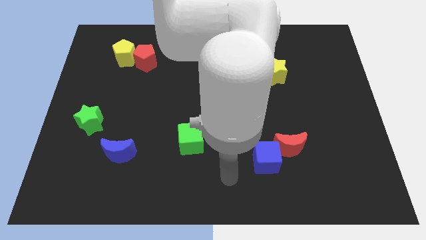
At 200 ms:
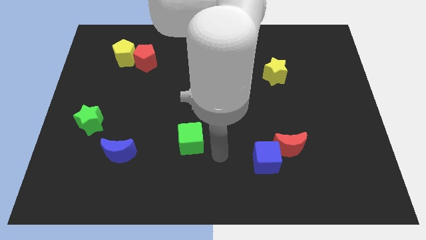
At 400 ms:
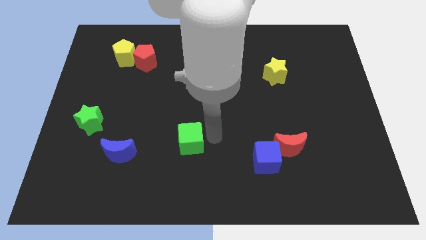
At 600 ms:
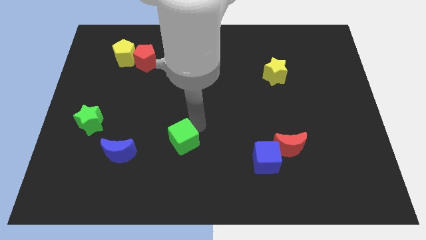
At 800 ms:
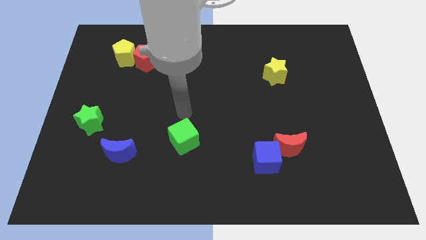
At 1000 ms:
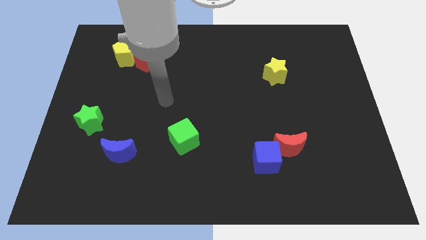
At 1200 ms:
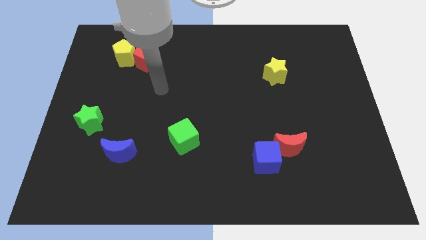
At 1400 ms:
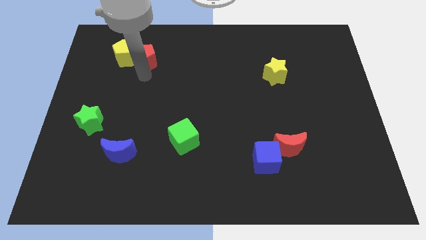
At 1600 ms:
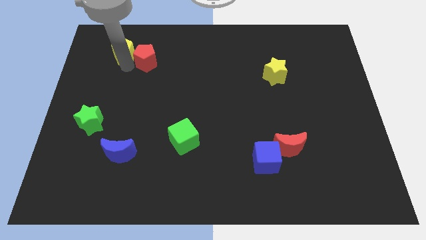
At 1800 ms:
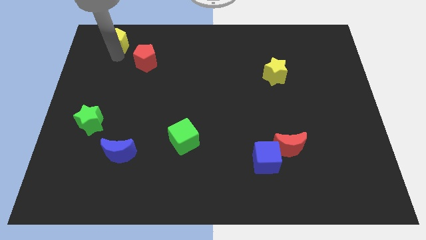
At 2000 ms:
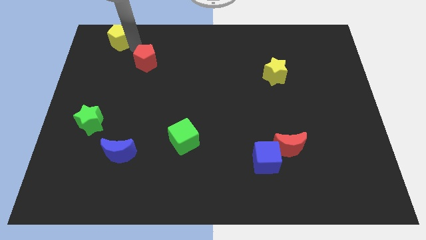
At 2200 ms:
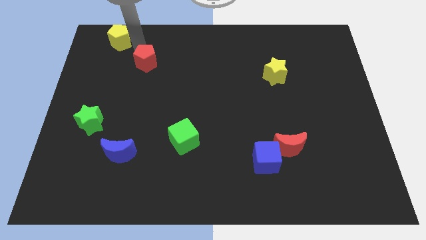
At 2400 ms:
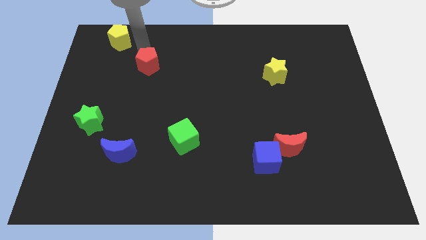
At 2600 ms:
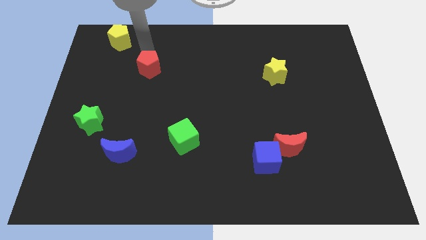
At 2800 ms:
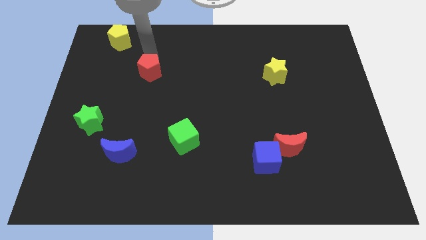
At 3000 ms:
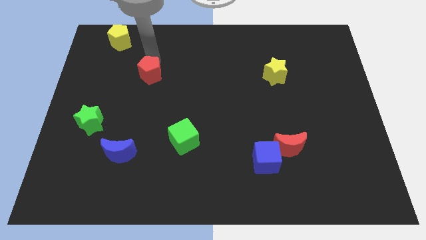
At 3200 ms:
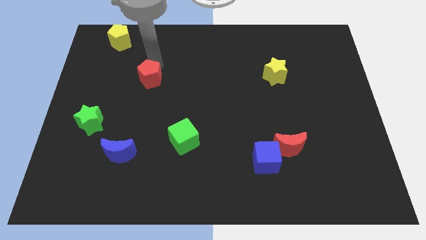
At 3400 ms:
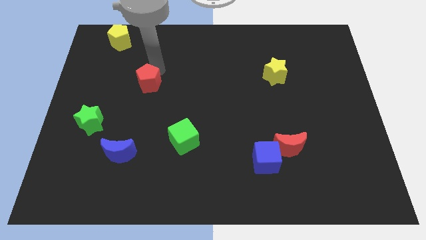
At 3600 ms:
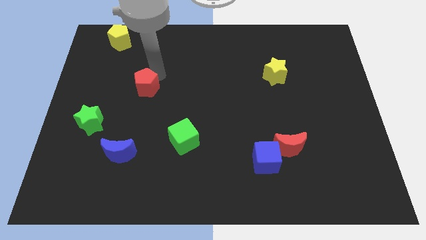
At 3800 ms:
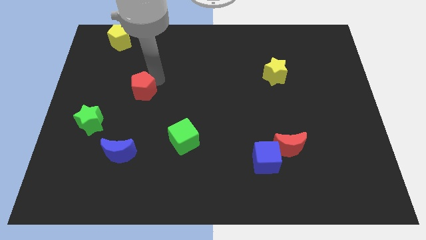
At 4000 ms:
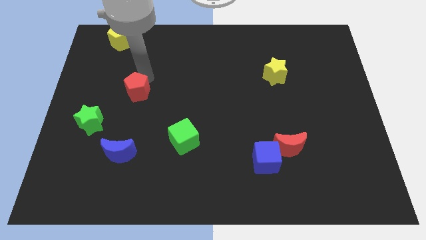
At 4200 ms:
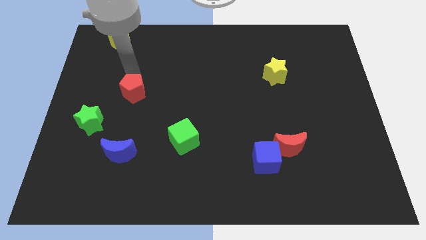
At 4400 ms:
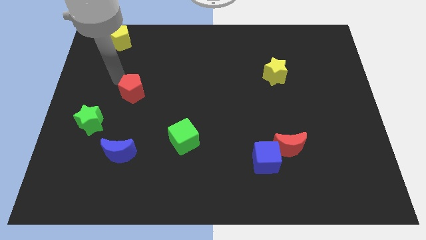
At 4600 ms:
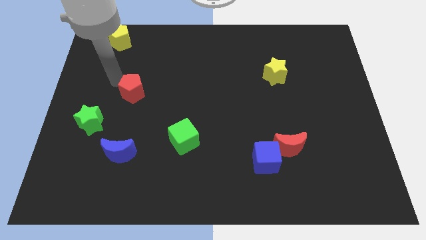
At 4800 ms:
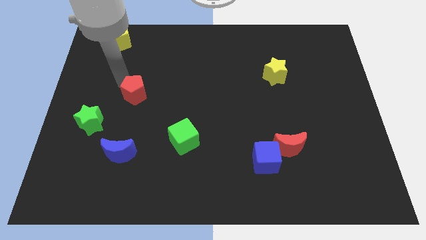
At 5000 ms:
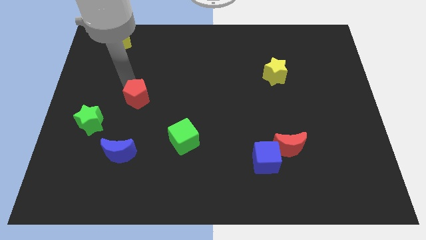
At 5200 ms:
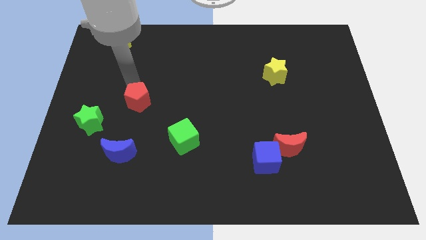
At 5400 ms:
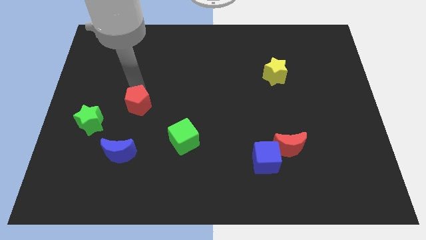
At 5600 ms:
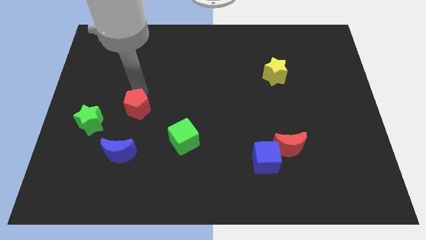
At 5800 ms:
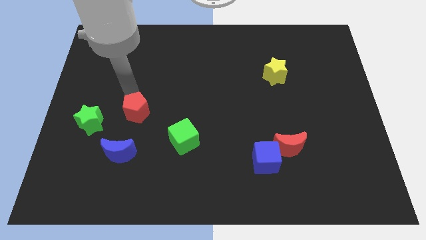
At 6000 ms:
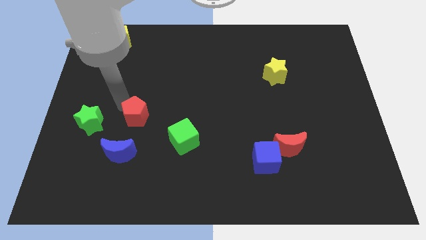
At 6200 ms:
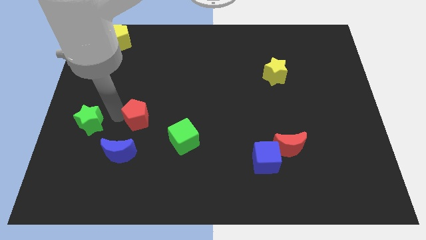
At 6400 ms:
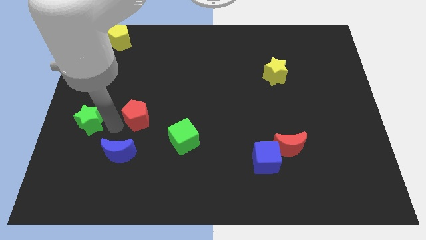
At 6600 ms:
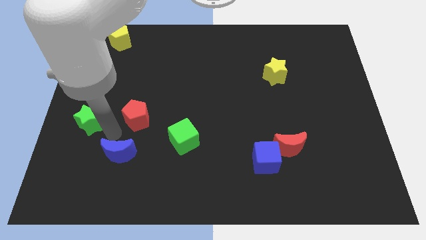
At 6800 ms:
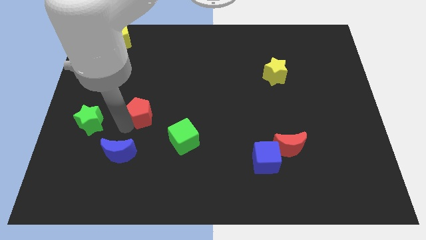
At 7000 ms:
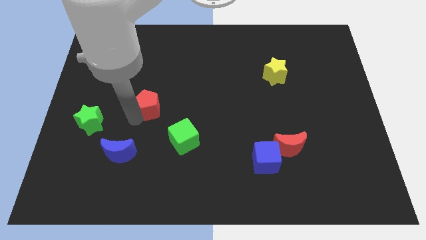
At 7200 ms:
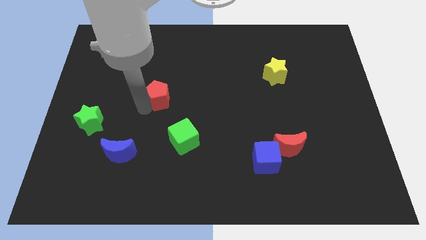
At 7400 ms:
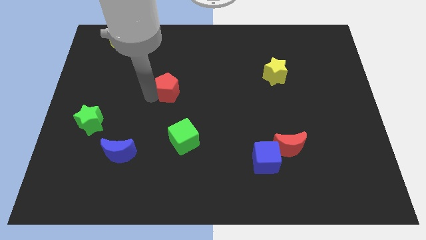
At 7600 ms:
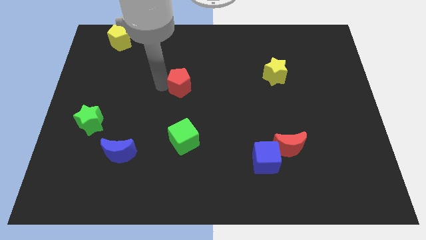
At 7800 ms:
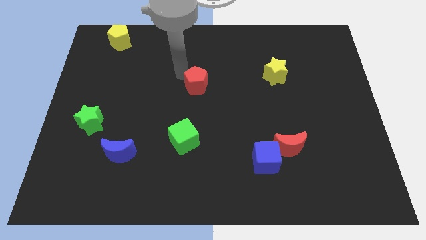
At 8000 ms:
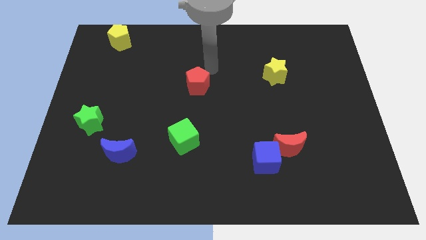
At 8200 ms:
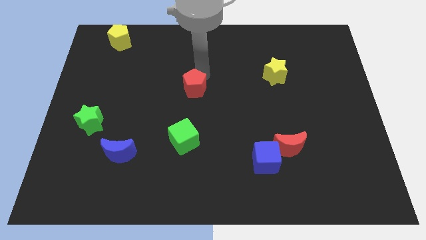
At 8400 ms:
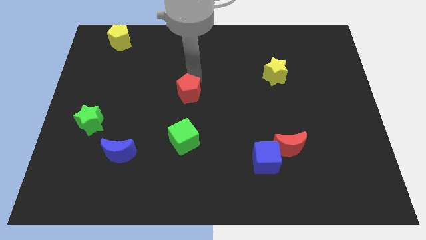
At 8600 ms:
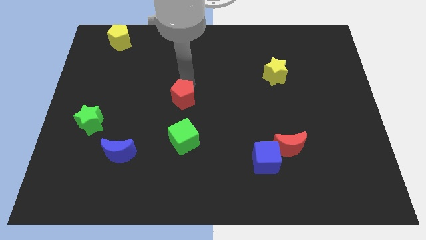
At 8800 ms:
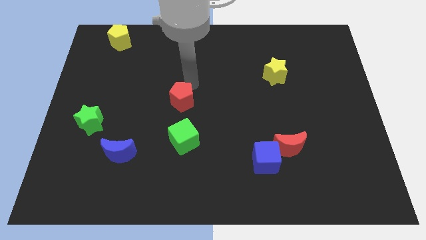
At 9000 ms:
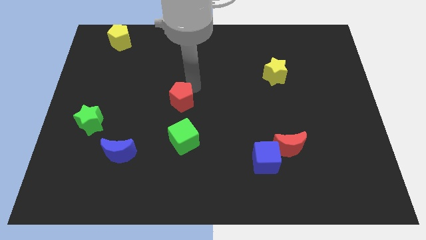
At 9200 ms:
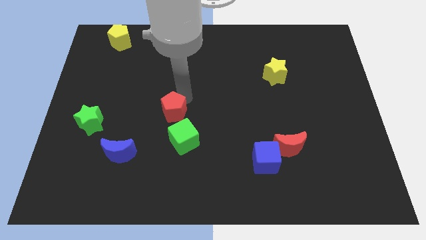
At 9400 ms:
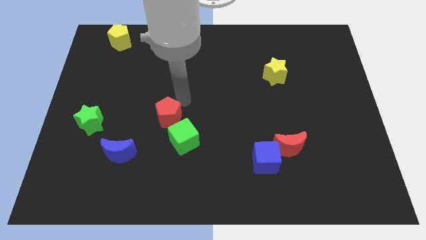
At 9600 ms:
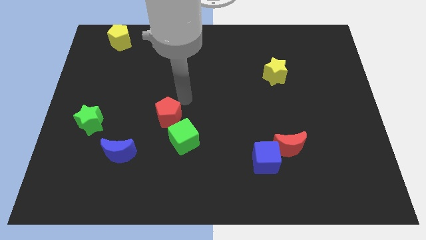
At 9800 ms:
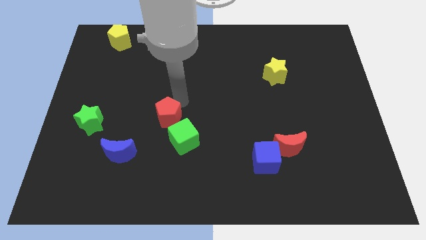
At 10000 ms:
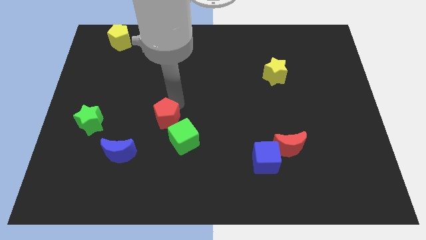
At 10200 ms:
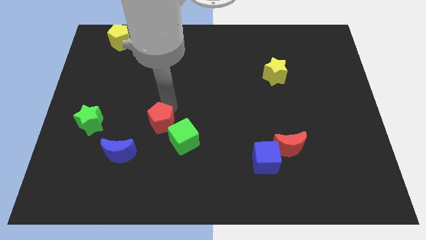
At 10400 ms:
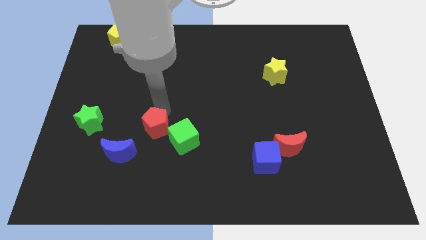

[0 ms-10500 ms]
push the red pentagon down

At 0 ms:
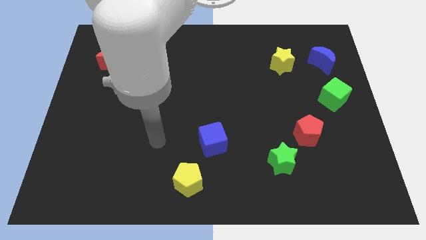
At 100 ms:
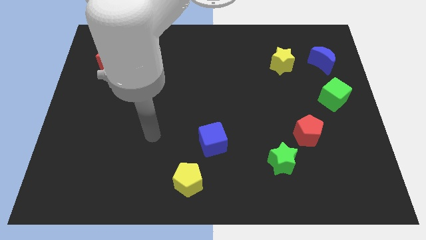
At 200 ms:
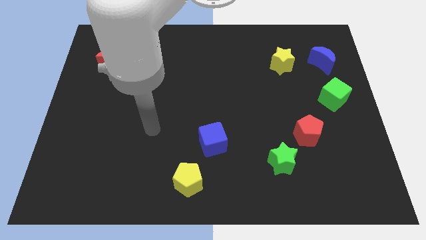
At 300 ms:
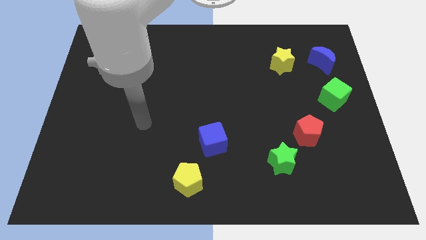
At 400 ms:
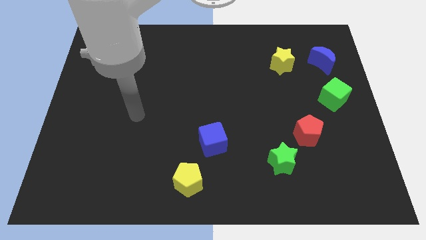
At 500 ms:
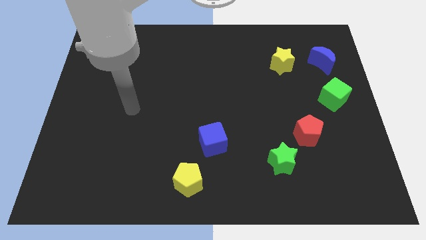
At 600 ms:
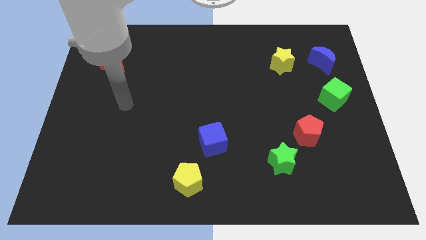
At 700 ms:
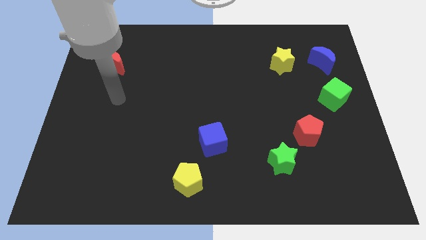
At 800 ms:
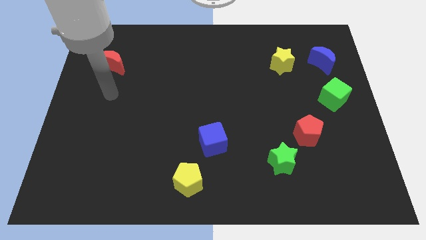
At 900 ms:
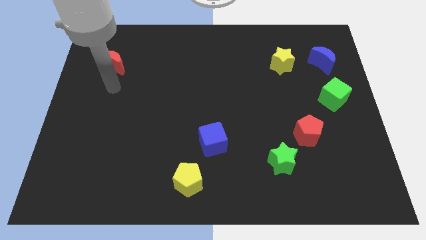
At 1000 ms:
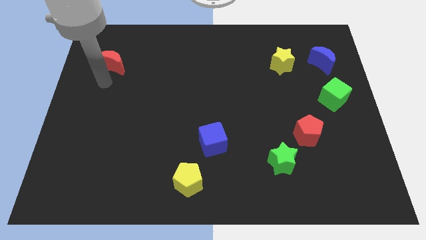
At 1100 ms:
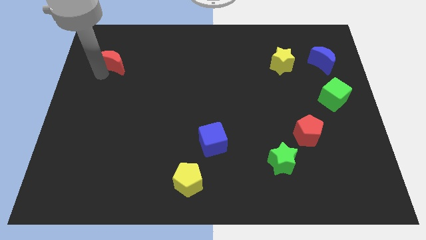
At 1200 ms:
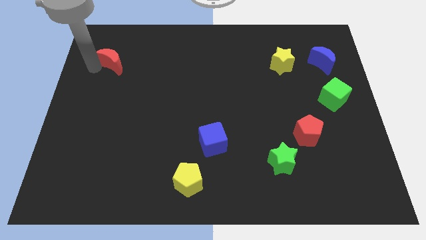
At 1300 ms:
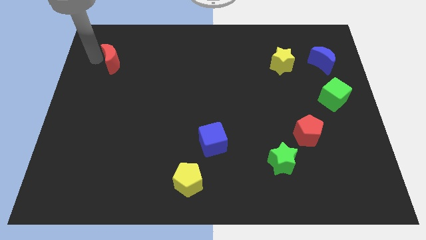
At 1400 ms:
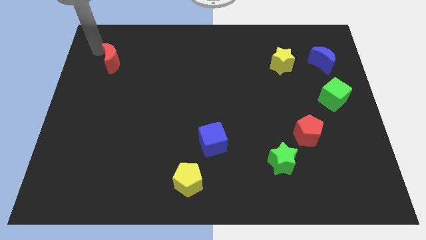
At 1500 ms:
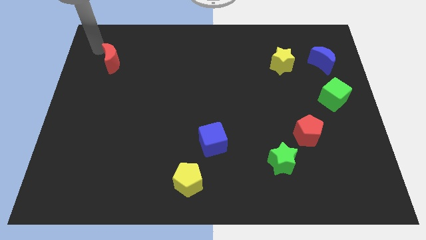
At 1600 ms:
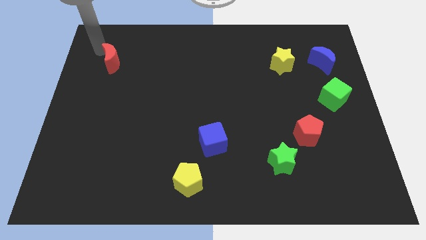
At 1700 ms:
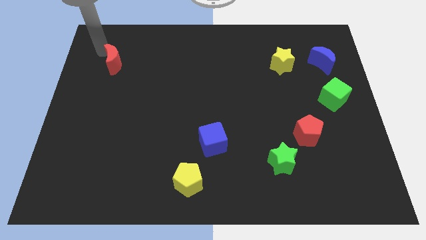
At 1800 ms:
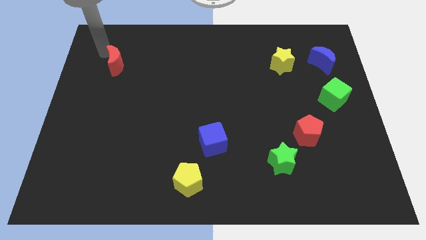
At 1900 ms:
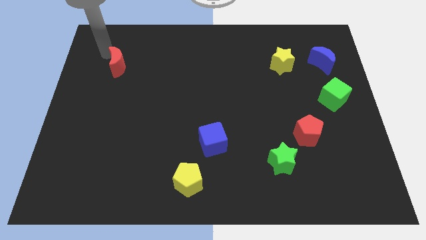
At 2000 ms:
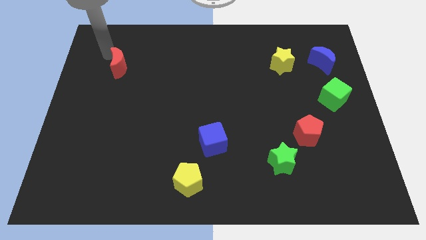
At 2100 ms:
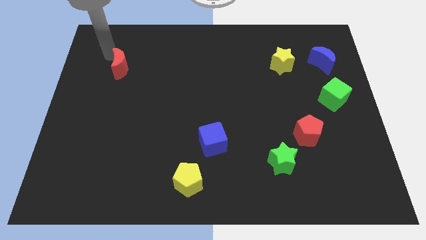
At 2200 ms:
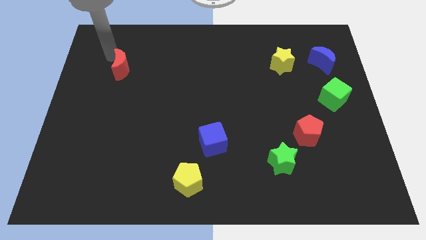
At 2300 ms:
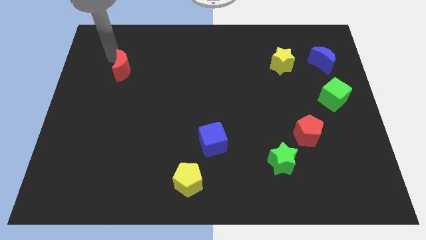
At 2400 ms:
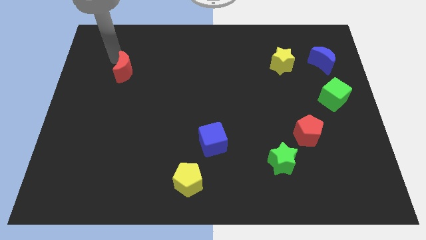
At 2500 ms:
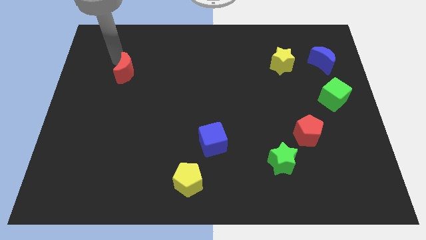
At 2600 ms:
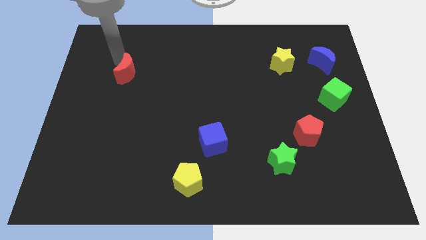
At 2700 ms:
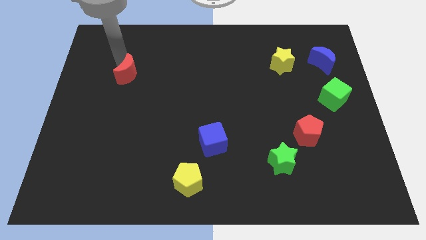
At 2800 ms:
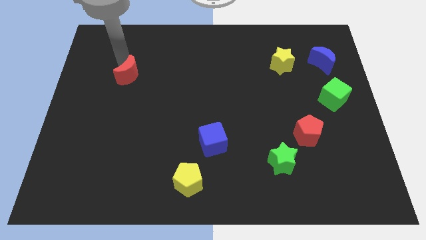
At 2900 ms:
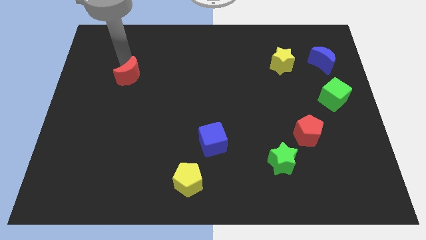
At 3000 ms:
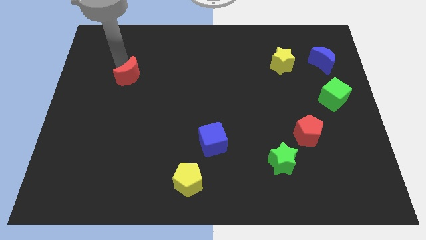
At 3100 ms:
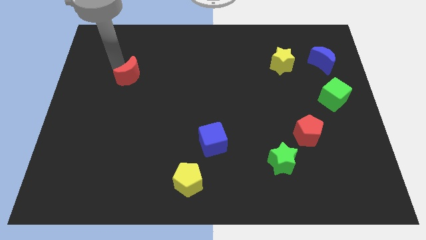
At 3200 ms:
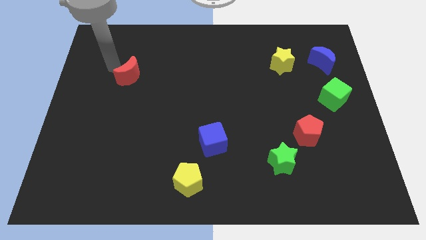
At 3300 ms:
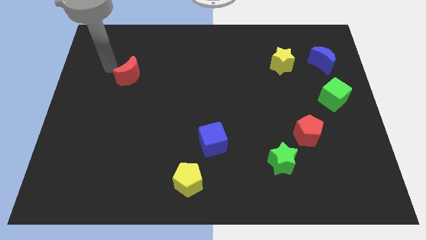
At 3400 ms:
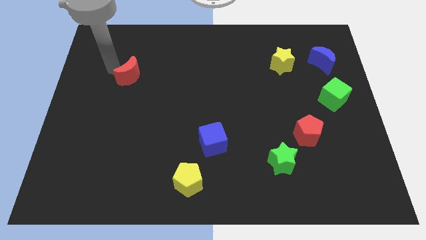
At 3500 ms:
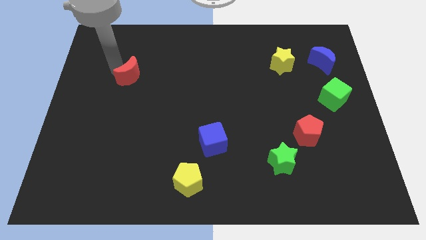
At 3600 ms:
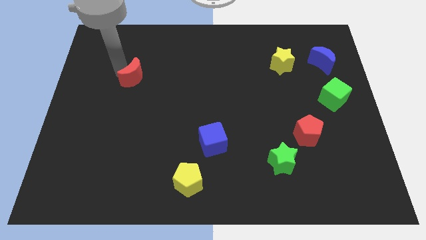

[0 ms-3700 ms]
slightly move the red moon down and right
